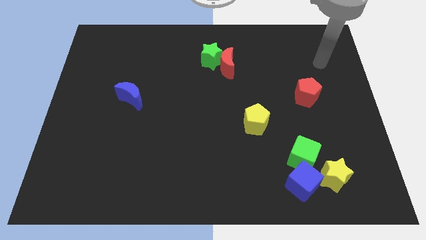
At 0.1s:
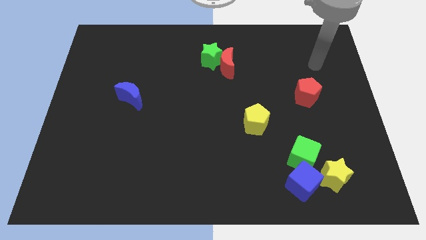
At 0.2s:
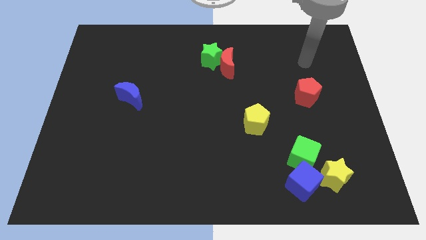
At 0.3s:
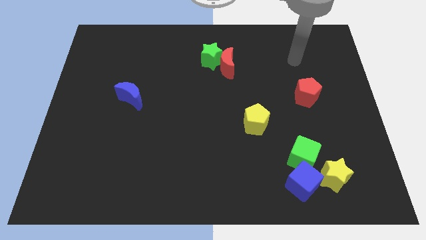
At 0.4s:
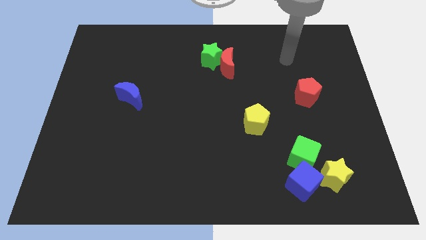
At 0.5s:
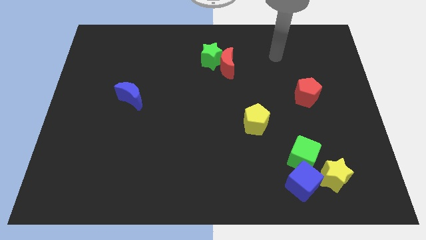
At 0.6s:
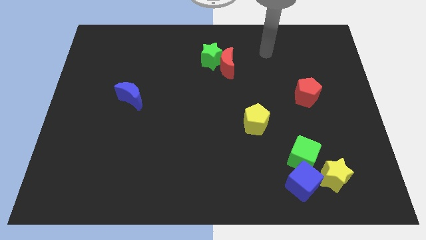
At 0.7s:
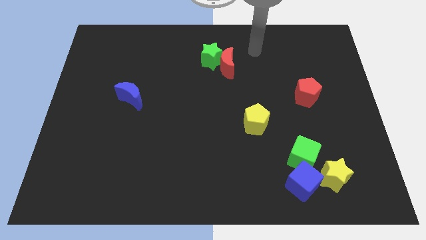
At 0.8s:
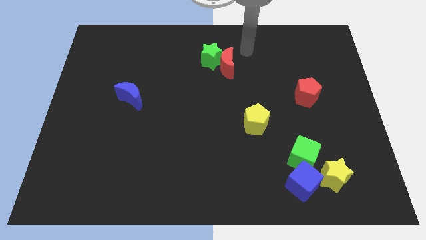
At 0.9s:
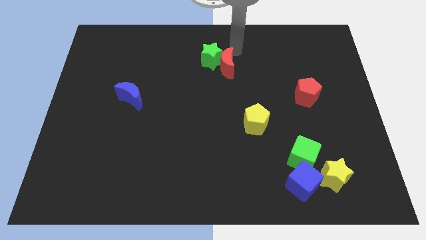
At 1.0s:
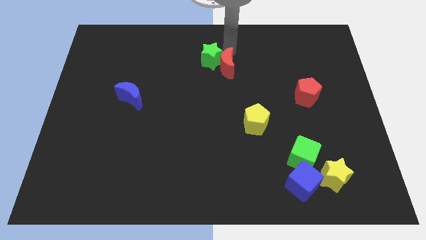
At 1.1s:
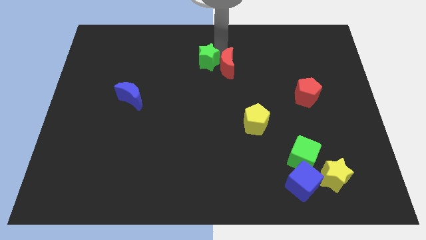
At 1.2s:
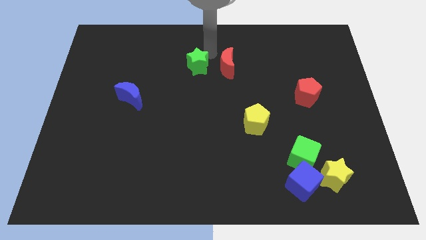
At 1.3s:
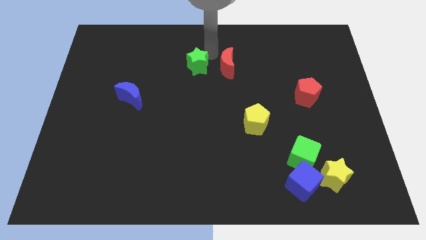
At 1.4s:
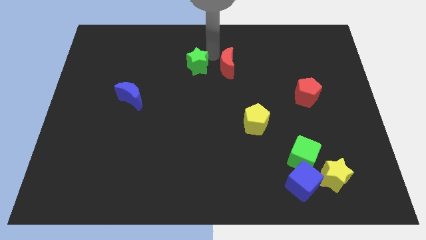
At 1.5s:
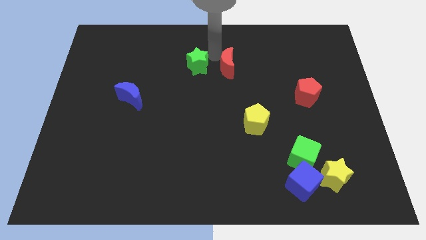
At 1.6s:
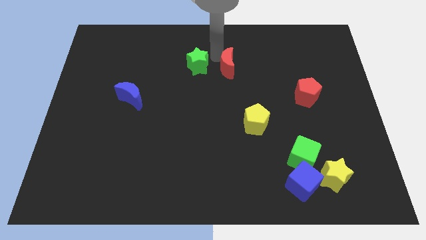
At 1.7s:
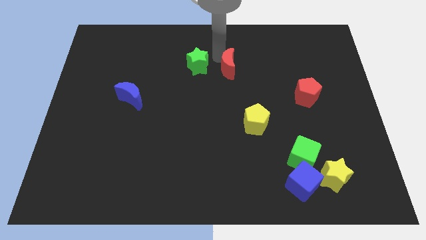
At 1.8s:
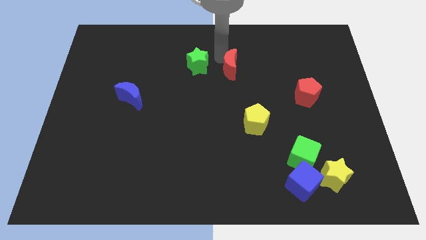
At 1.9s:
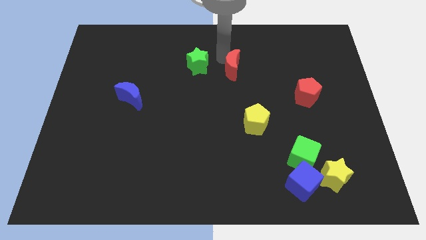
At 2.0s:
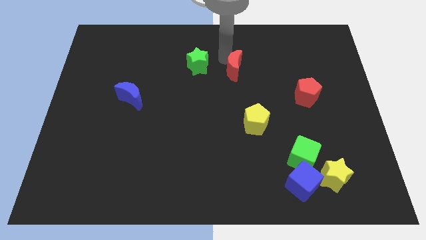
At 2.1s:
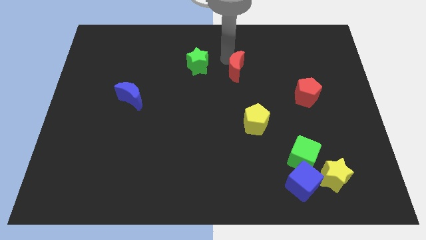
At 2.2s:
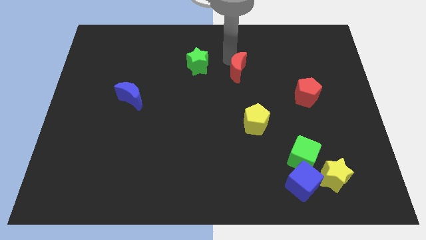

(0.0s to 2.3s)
move the red moon away from the green star

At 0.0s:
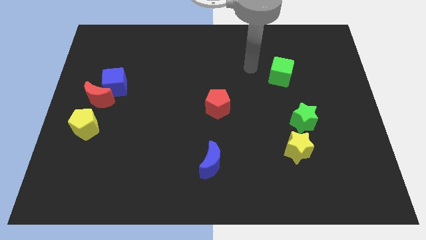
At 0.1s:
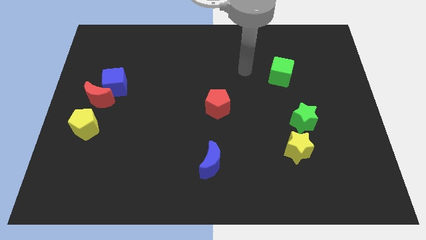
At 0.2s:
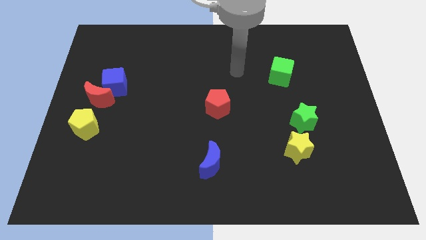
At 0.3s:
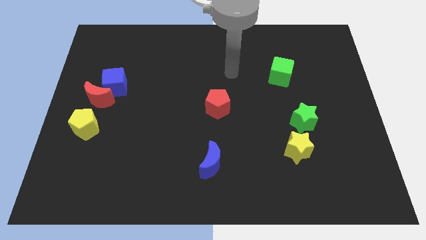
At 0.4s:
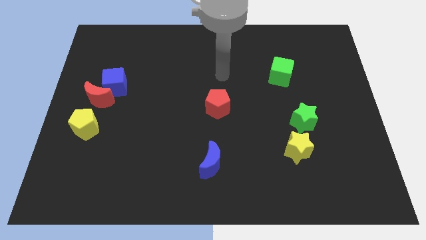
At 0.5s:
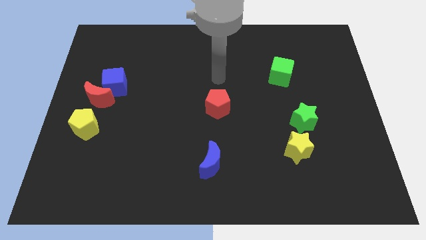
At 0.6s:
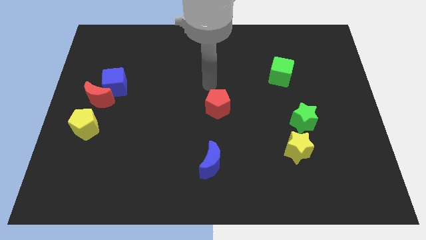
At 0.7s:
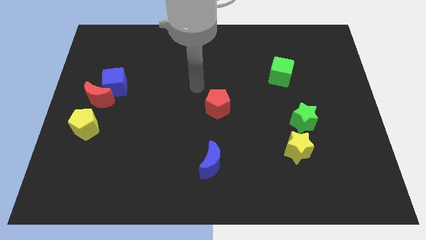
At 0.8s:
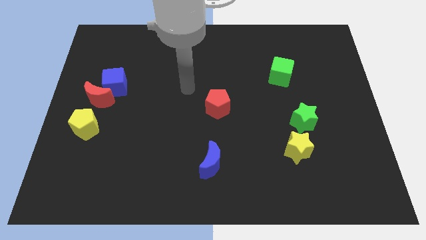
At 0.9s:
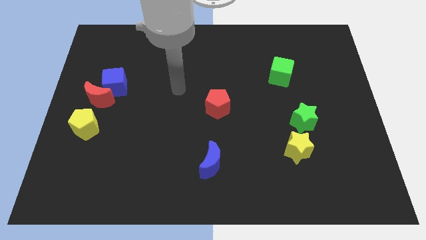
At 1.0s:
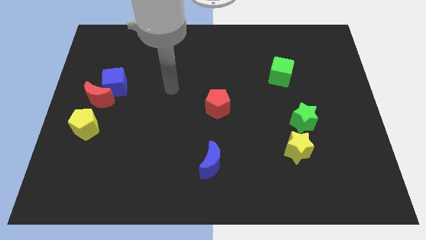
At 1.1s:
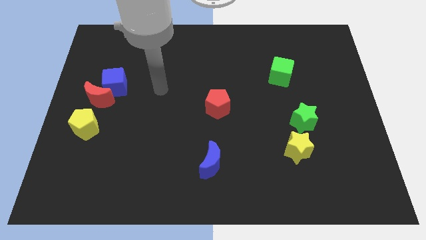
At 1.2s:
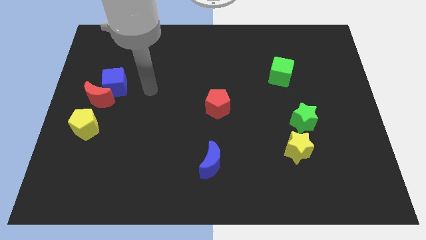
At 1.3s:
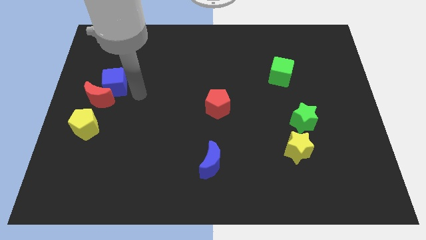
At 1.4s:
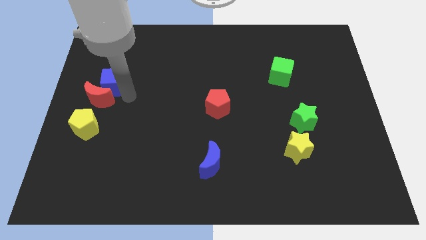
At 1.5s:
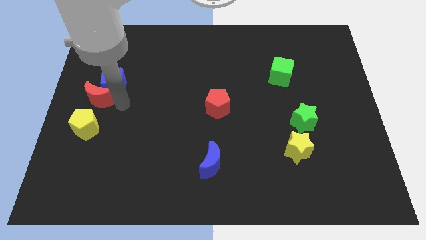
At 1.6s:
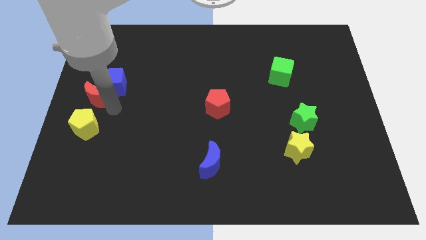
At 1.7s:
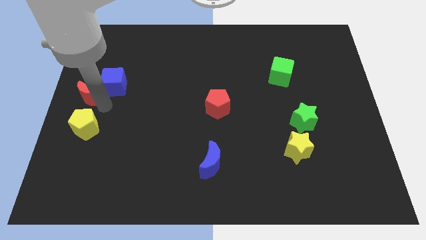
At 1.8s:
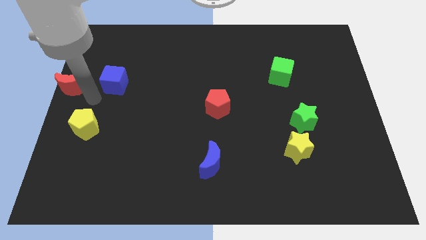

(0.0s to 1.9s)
separate the blue cube from the red moon

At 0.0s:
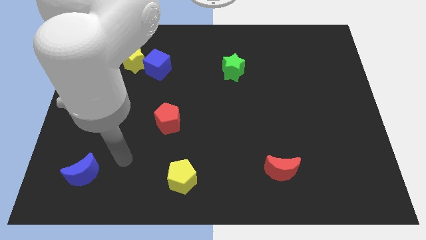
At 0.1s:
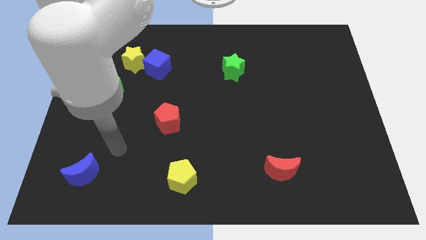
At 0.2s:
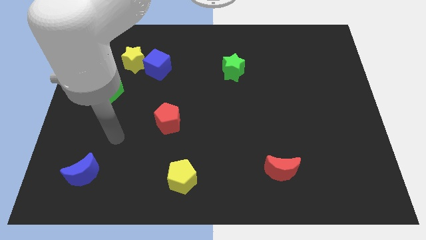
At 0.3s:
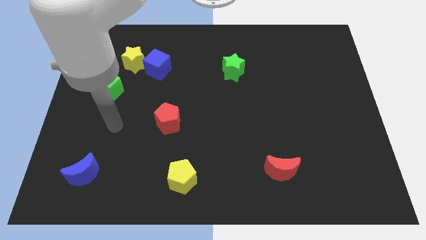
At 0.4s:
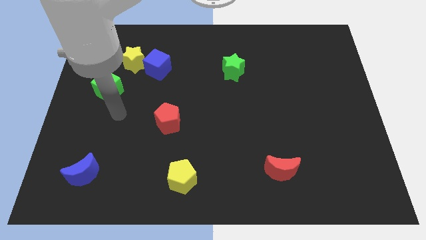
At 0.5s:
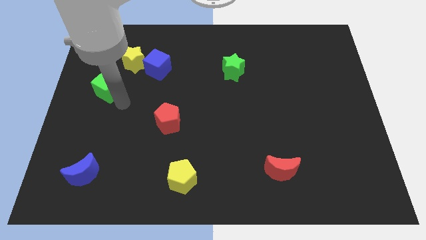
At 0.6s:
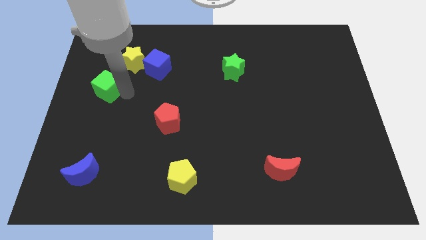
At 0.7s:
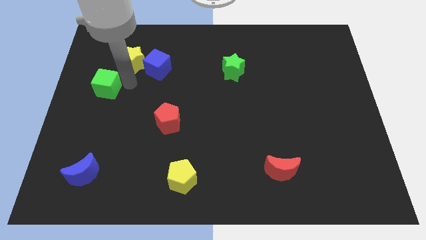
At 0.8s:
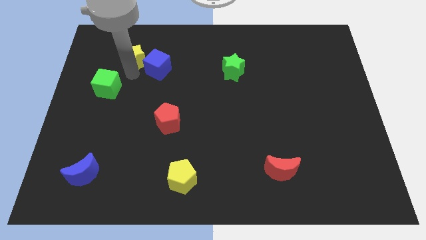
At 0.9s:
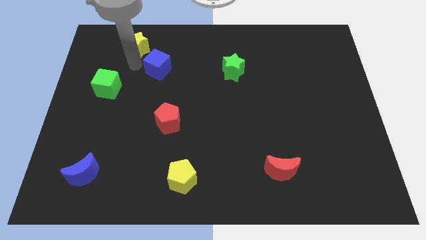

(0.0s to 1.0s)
move the blue cube away from the yellow star

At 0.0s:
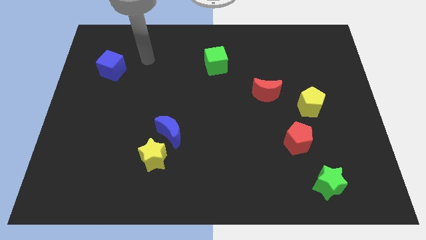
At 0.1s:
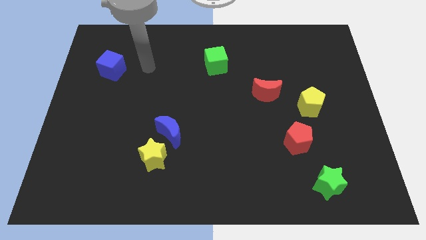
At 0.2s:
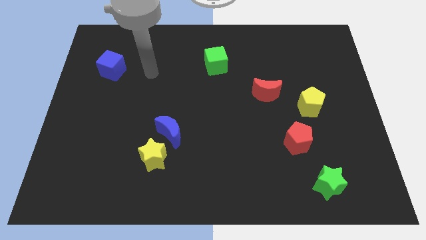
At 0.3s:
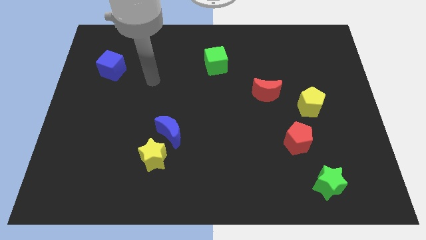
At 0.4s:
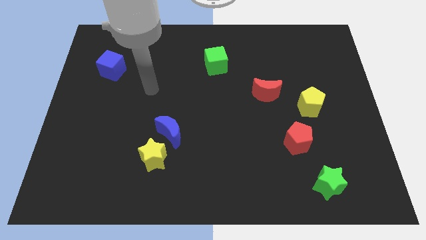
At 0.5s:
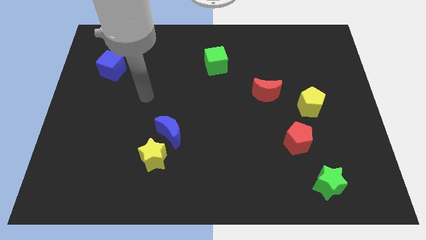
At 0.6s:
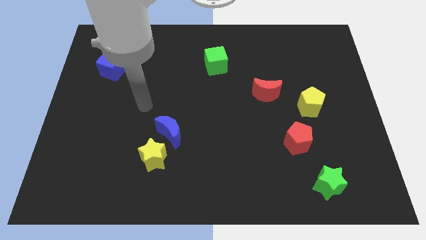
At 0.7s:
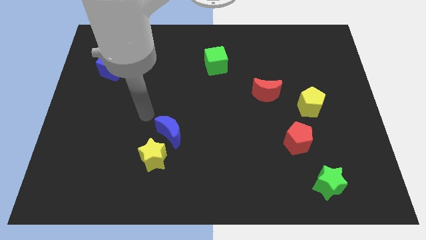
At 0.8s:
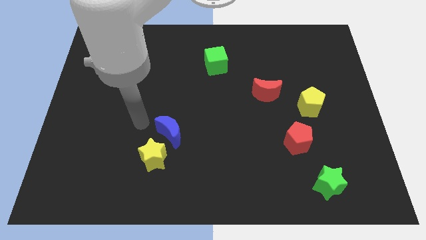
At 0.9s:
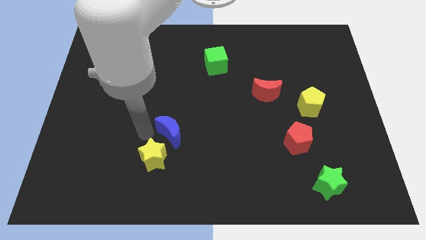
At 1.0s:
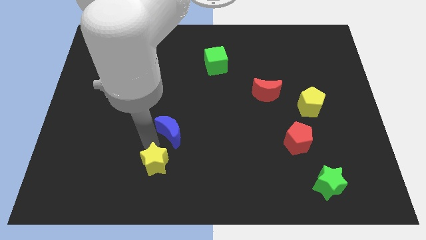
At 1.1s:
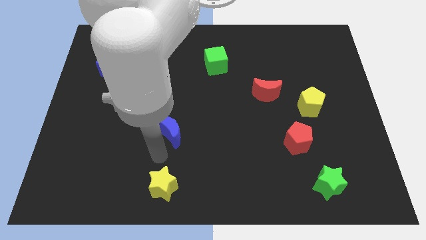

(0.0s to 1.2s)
move the blue moon away from the yellow star

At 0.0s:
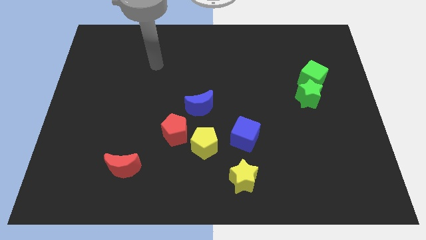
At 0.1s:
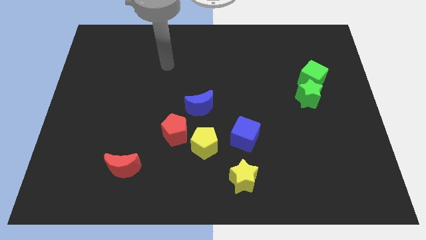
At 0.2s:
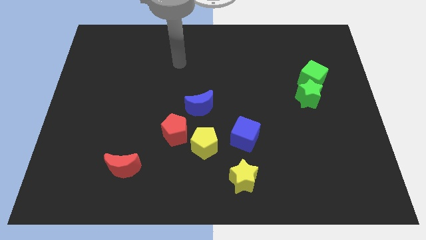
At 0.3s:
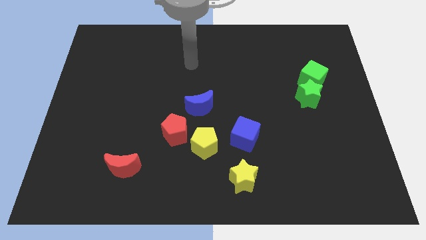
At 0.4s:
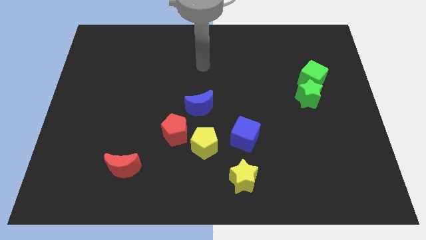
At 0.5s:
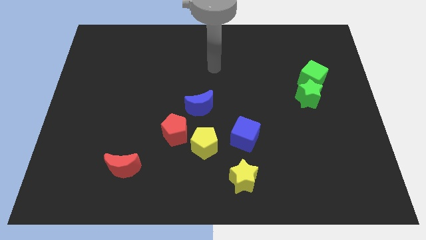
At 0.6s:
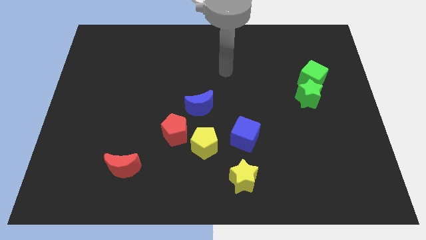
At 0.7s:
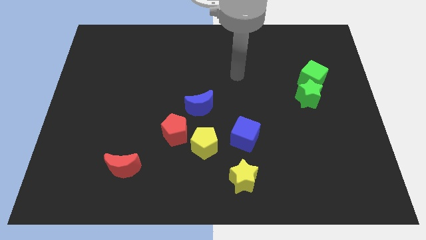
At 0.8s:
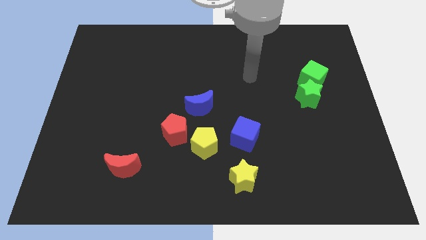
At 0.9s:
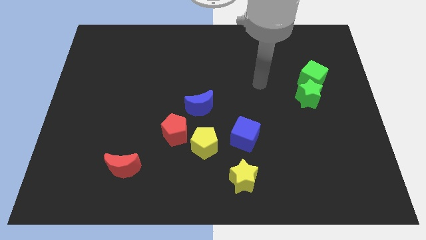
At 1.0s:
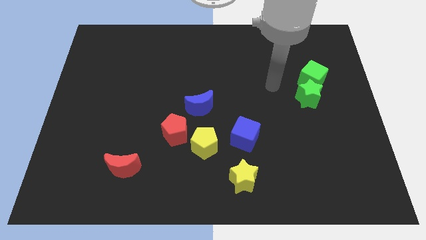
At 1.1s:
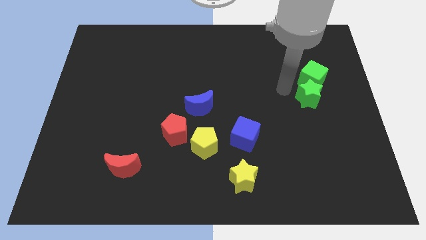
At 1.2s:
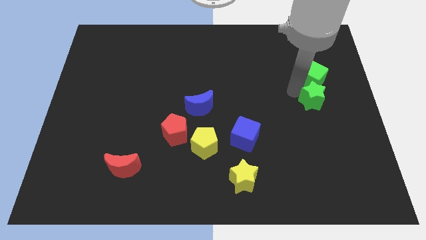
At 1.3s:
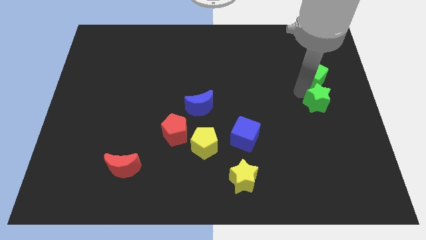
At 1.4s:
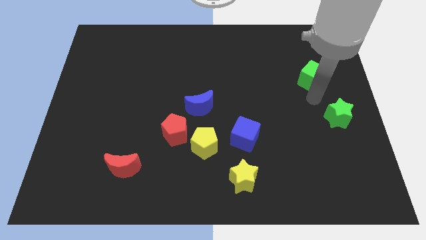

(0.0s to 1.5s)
separate the green cube from the green star

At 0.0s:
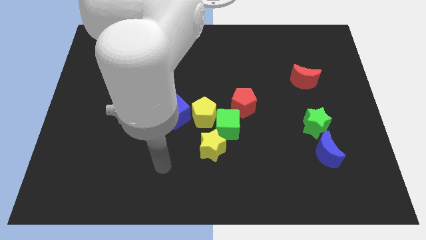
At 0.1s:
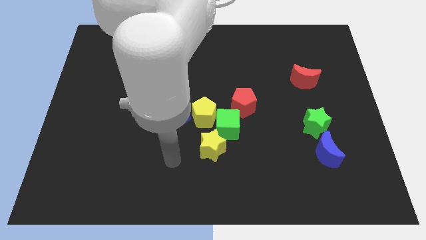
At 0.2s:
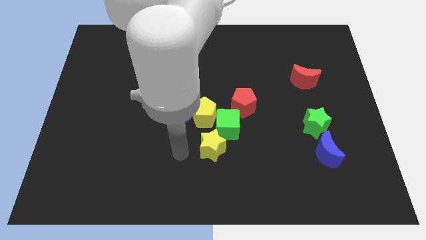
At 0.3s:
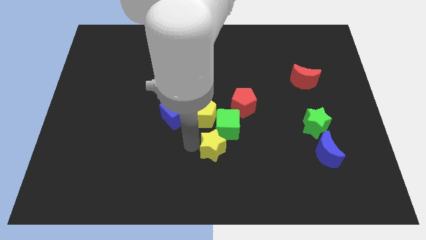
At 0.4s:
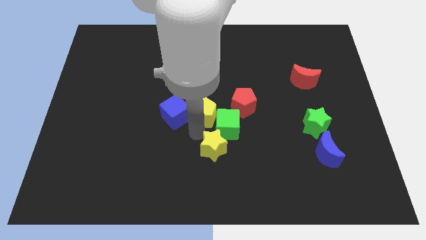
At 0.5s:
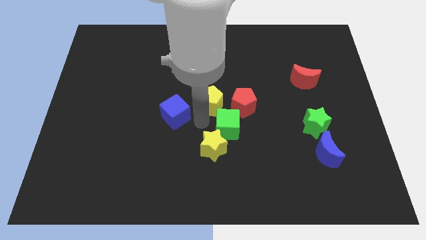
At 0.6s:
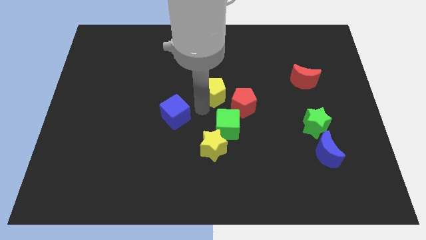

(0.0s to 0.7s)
pull the blue cube apart from the yellow pentagon

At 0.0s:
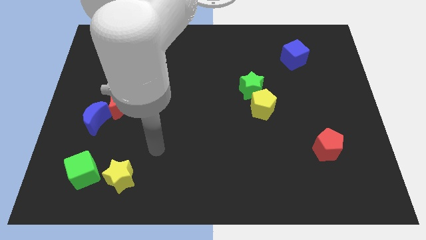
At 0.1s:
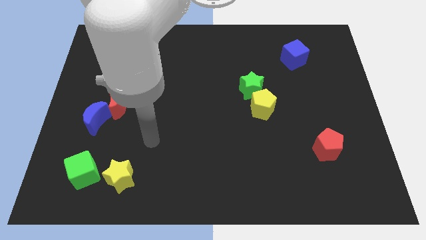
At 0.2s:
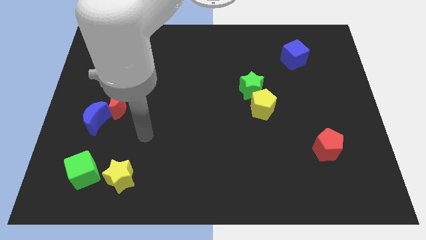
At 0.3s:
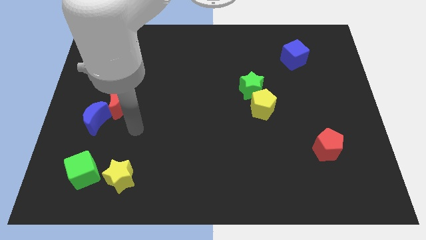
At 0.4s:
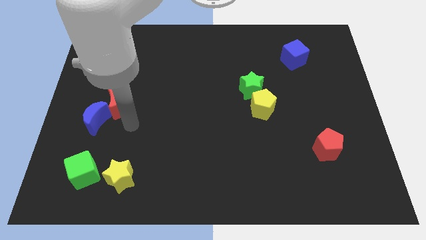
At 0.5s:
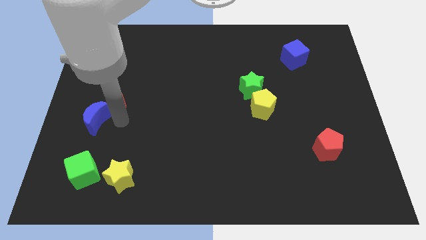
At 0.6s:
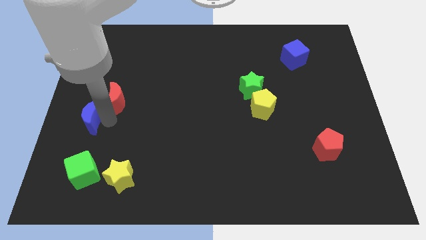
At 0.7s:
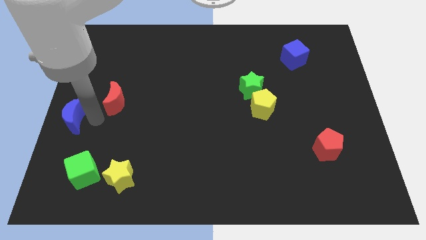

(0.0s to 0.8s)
pull the red moon apart from the blue moon
